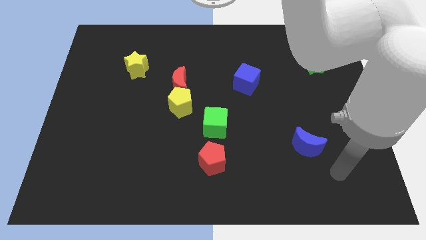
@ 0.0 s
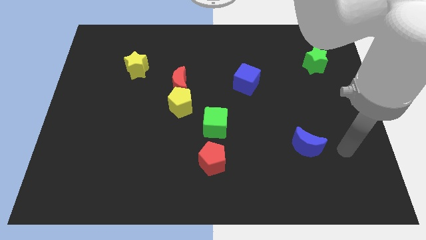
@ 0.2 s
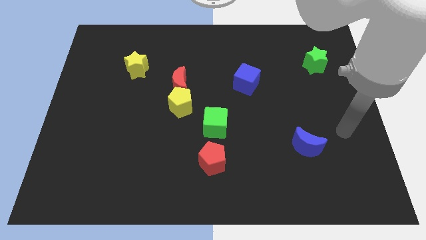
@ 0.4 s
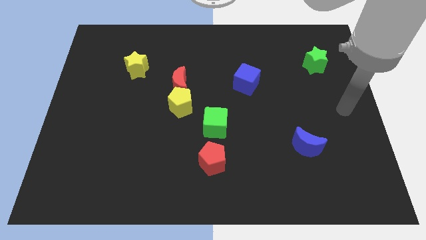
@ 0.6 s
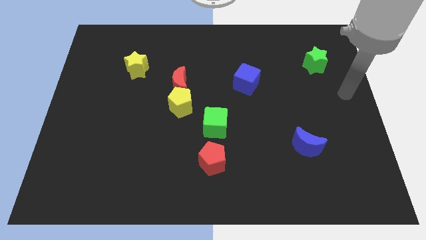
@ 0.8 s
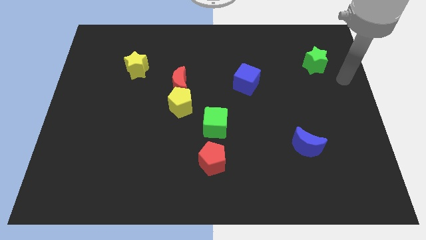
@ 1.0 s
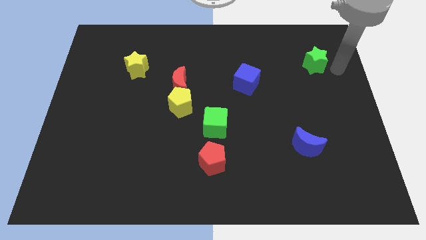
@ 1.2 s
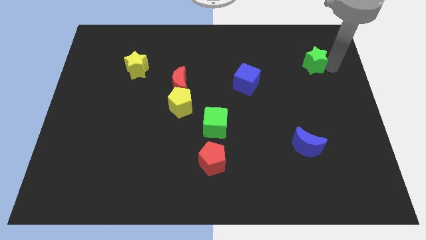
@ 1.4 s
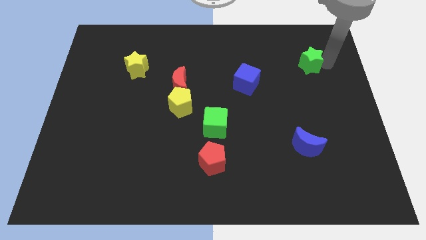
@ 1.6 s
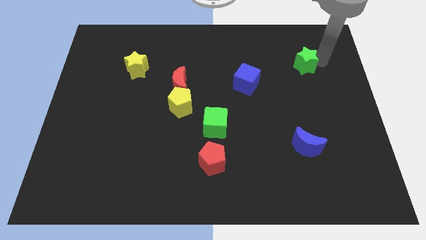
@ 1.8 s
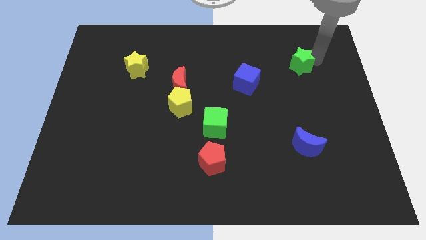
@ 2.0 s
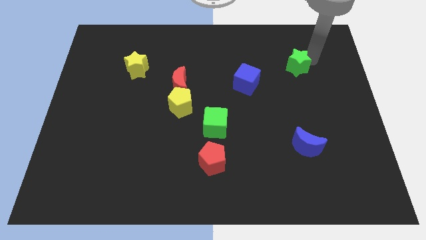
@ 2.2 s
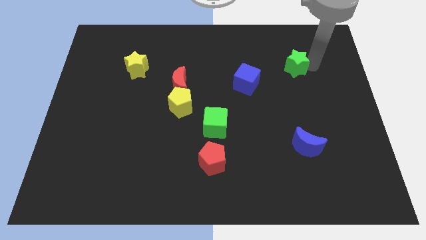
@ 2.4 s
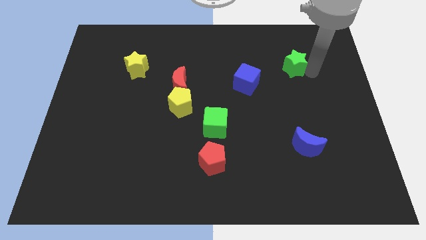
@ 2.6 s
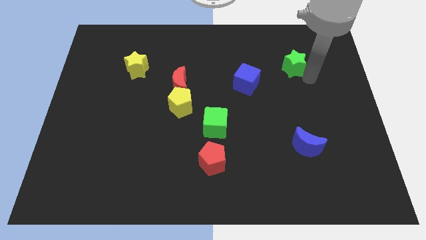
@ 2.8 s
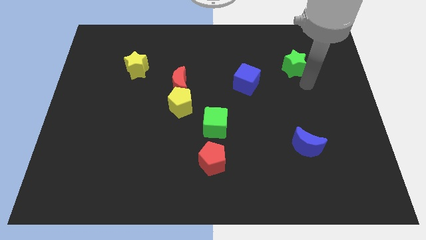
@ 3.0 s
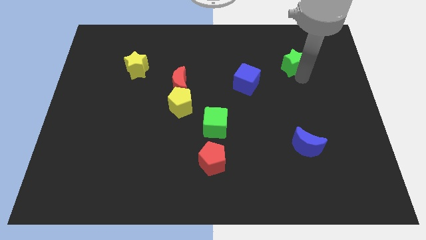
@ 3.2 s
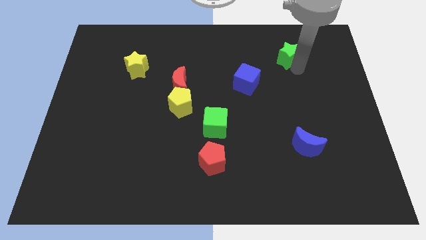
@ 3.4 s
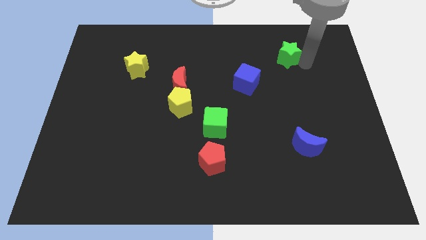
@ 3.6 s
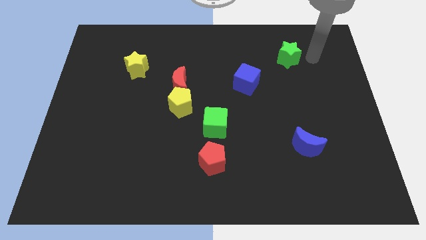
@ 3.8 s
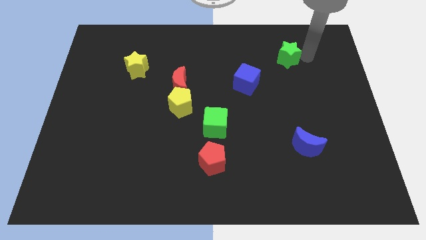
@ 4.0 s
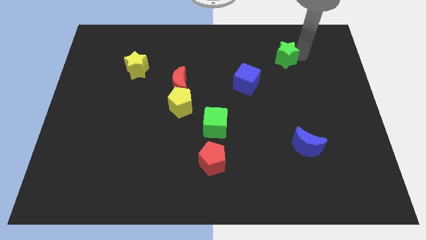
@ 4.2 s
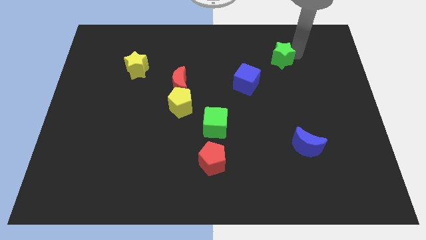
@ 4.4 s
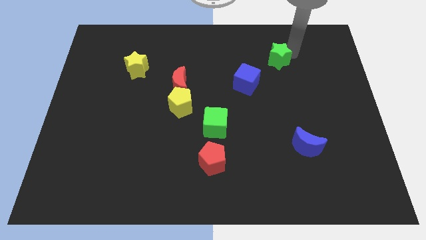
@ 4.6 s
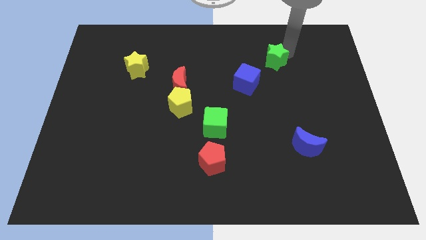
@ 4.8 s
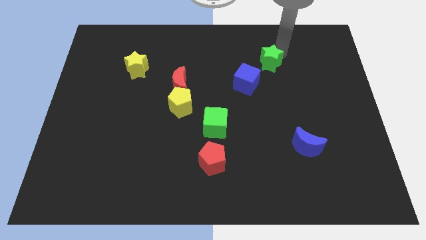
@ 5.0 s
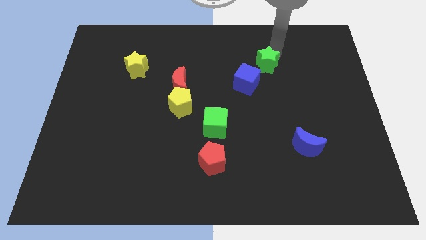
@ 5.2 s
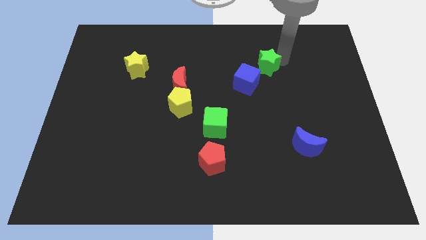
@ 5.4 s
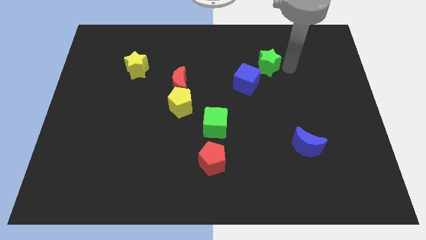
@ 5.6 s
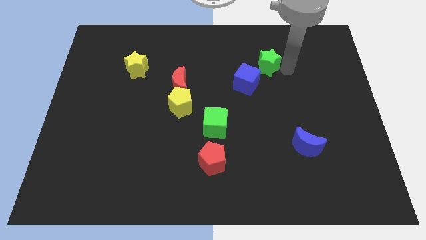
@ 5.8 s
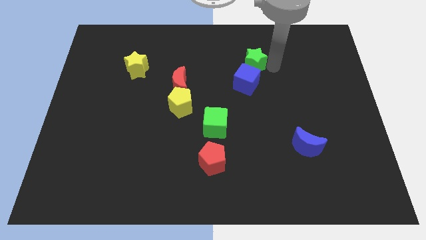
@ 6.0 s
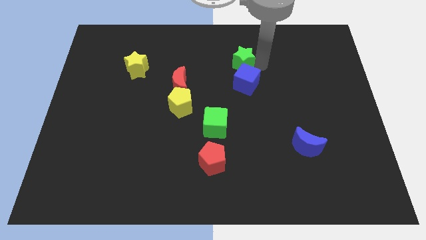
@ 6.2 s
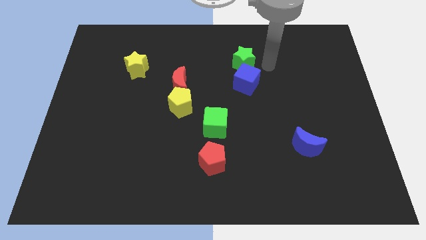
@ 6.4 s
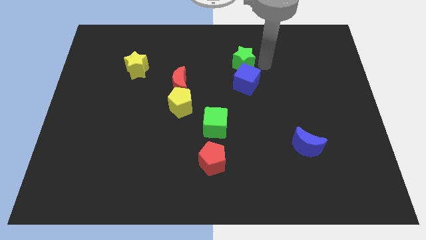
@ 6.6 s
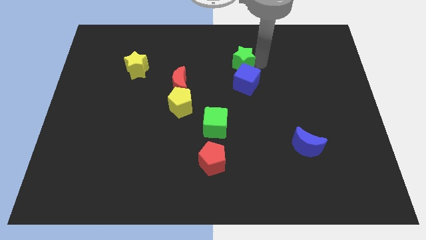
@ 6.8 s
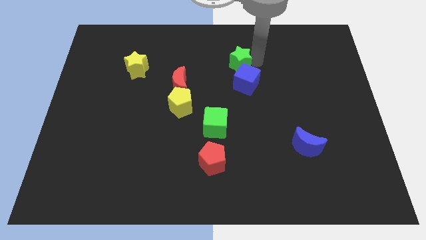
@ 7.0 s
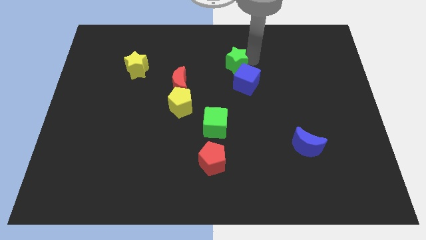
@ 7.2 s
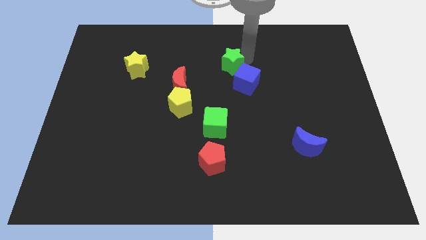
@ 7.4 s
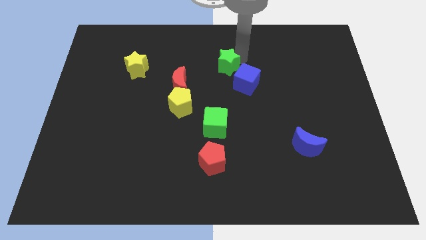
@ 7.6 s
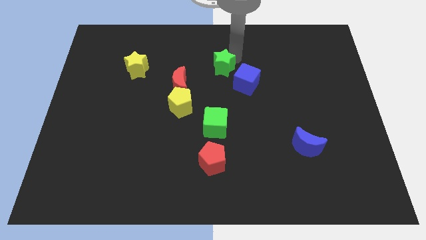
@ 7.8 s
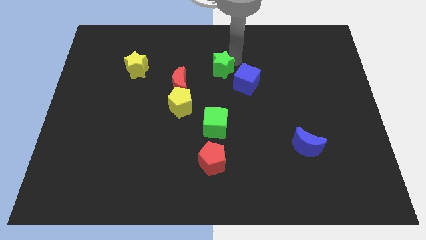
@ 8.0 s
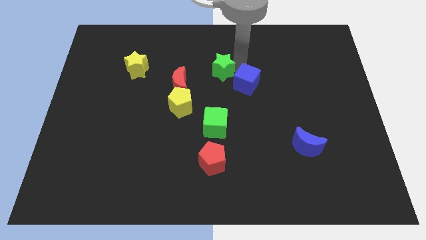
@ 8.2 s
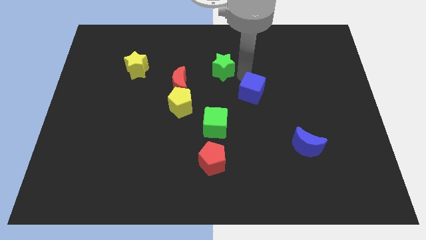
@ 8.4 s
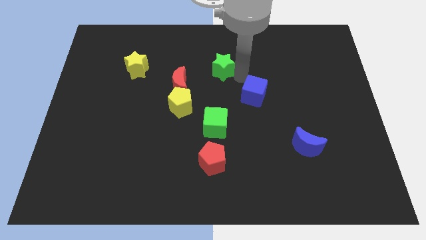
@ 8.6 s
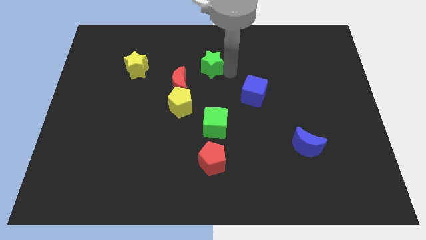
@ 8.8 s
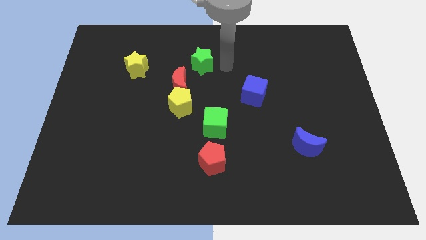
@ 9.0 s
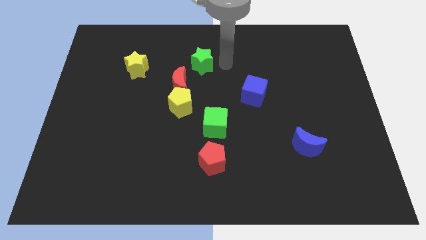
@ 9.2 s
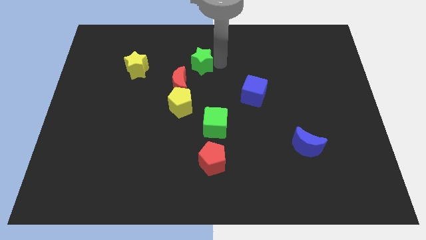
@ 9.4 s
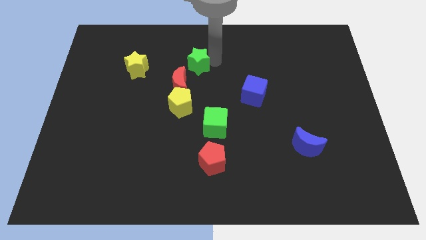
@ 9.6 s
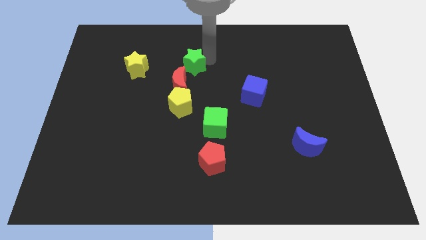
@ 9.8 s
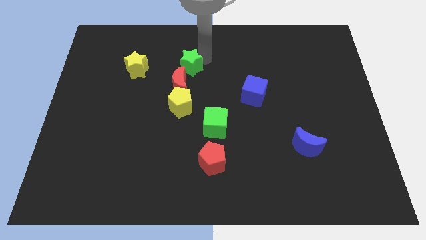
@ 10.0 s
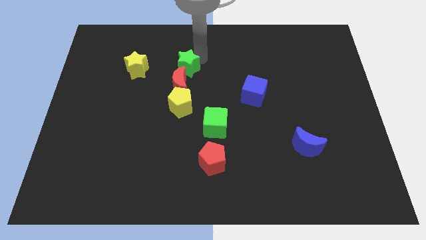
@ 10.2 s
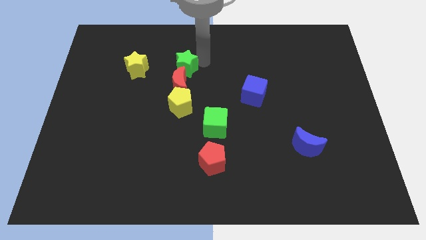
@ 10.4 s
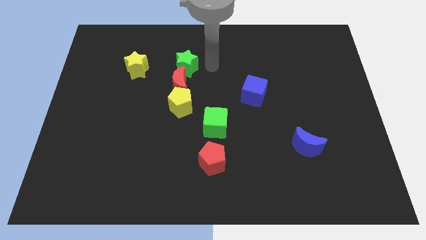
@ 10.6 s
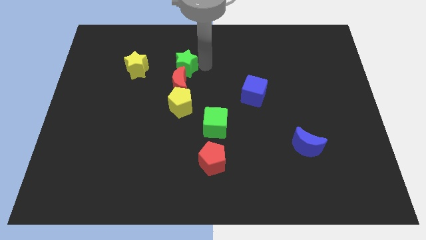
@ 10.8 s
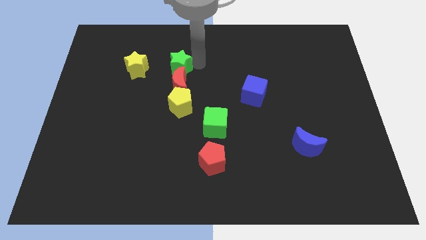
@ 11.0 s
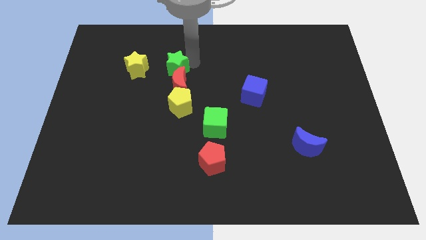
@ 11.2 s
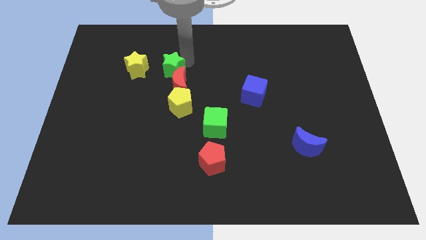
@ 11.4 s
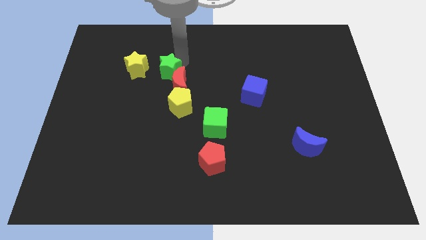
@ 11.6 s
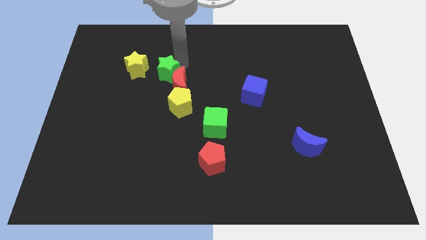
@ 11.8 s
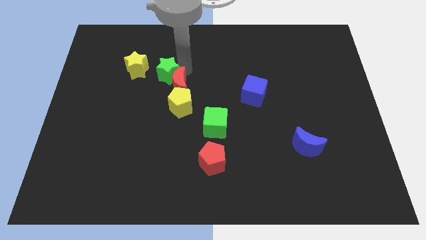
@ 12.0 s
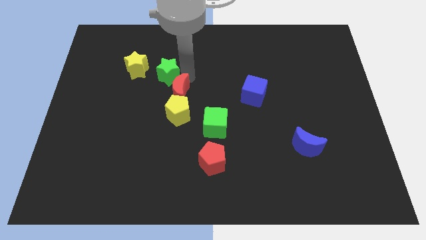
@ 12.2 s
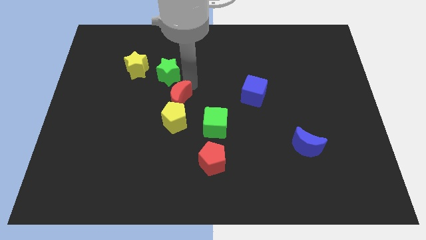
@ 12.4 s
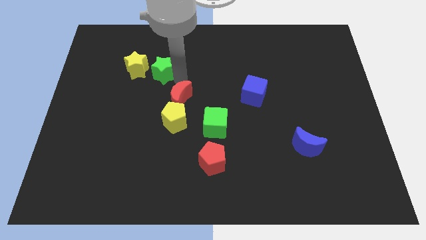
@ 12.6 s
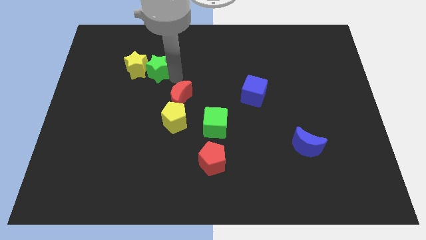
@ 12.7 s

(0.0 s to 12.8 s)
slide the green star to the yellow star
